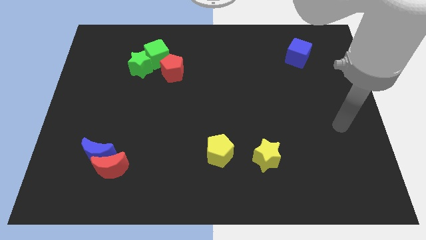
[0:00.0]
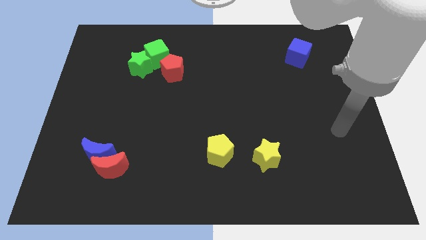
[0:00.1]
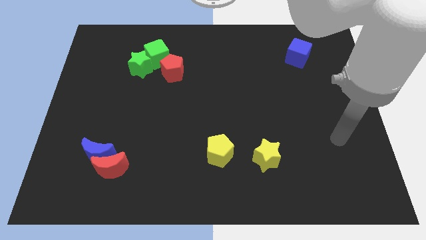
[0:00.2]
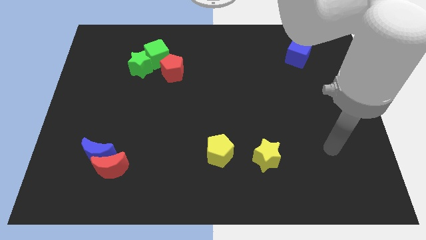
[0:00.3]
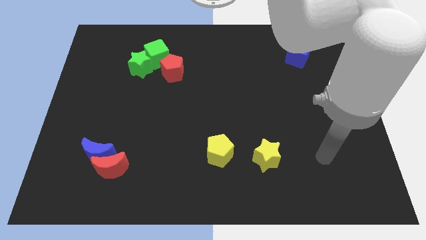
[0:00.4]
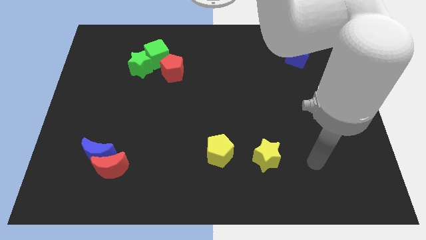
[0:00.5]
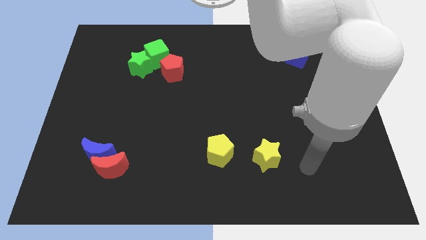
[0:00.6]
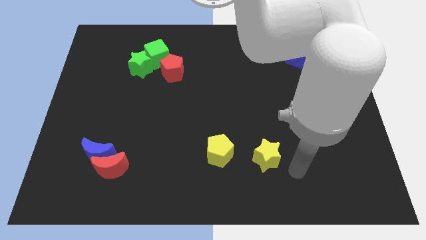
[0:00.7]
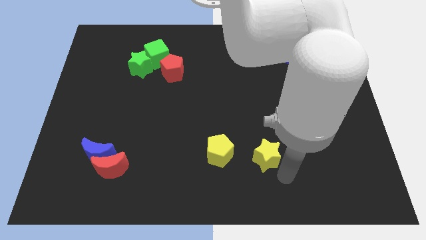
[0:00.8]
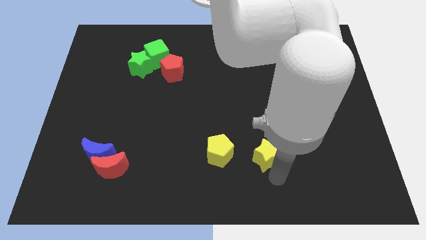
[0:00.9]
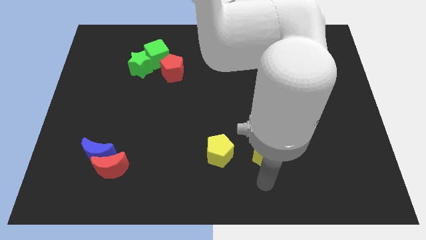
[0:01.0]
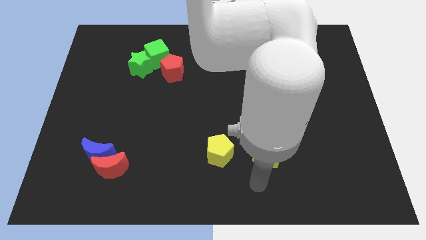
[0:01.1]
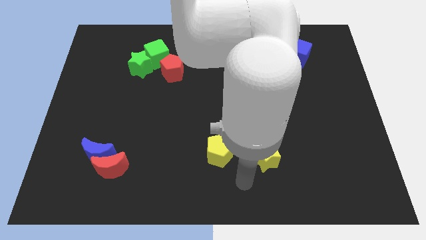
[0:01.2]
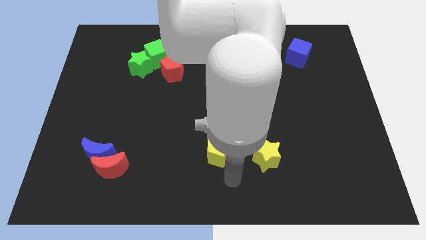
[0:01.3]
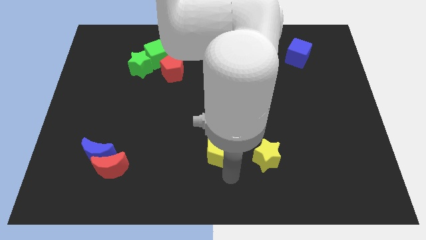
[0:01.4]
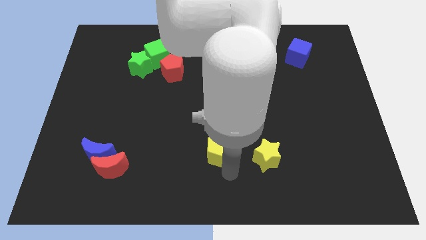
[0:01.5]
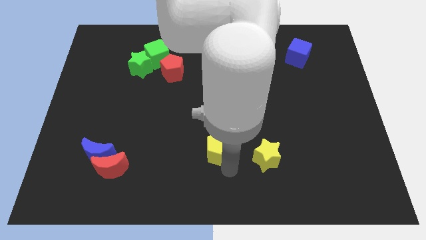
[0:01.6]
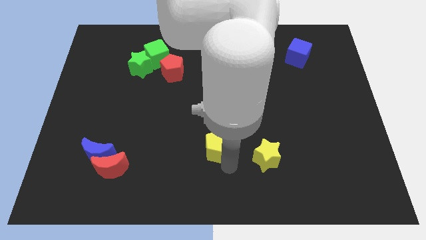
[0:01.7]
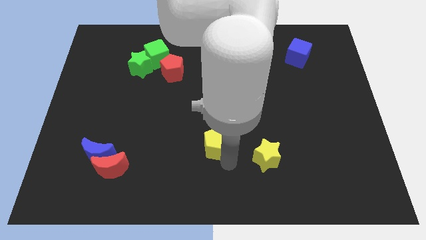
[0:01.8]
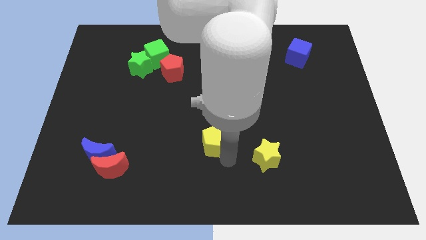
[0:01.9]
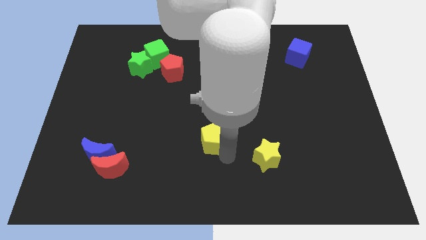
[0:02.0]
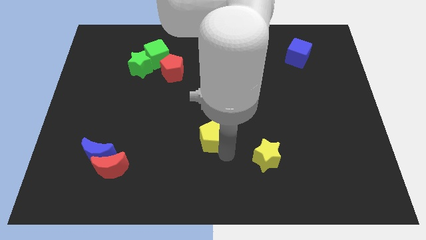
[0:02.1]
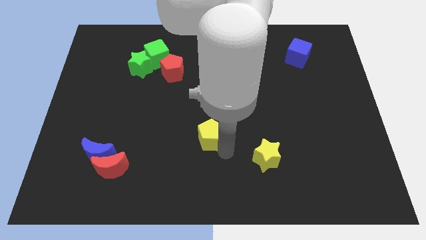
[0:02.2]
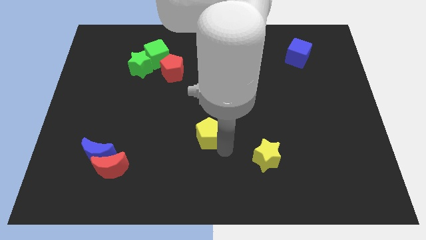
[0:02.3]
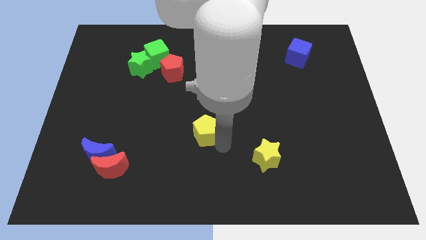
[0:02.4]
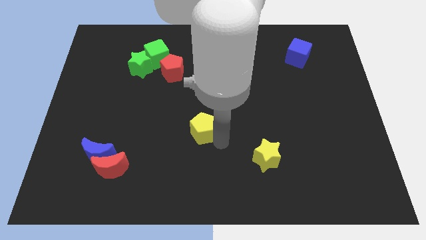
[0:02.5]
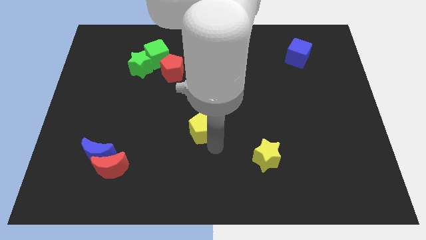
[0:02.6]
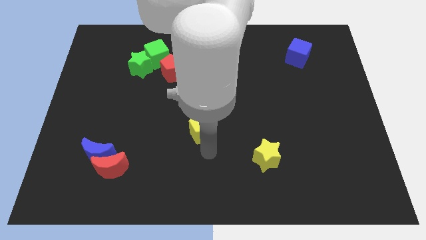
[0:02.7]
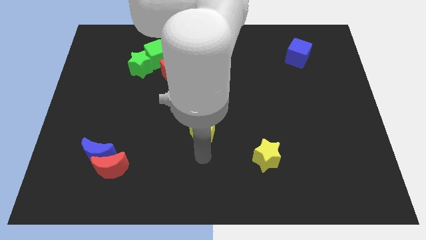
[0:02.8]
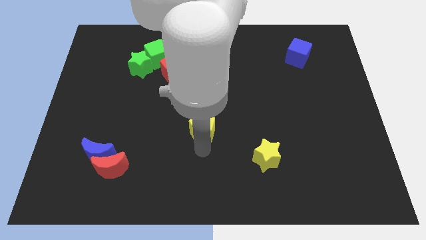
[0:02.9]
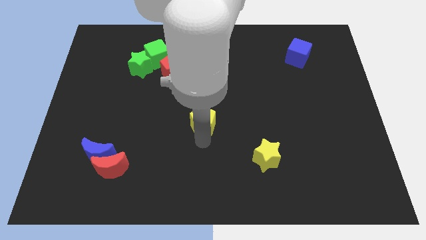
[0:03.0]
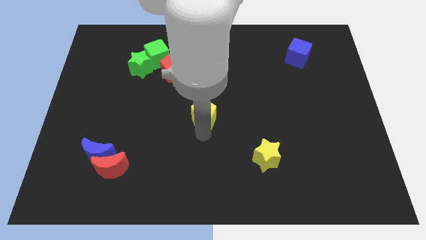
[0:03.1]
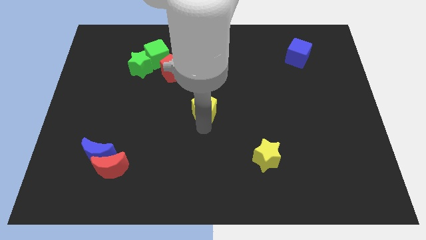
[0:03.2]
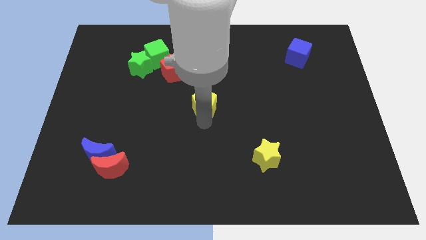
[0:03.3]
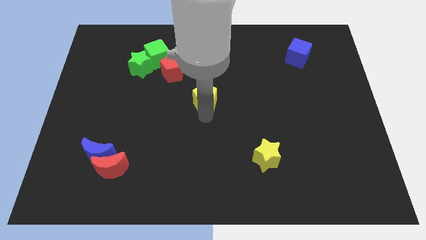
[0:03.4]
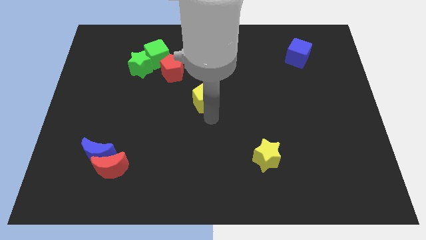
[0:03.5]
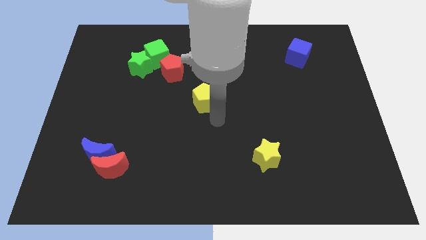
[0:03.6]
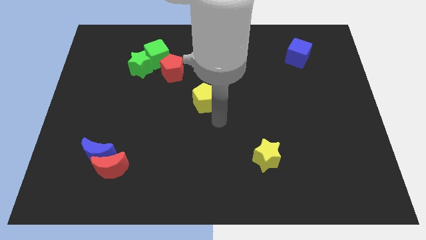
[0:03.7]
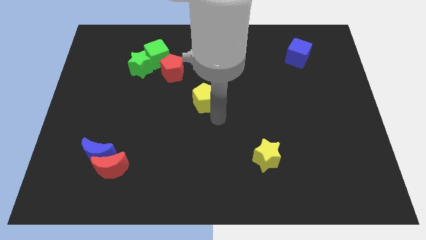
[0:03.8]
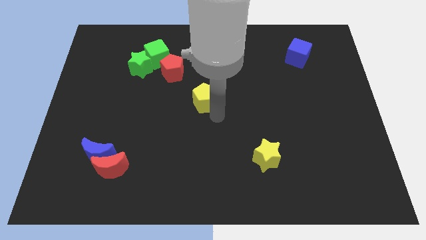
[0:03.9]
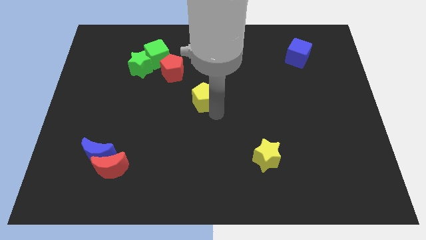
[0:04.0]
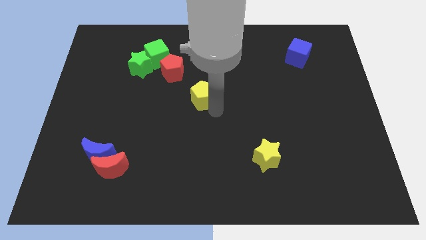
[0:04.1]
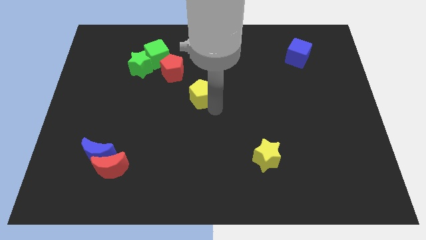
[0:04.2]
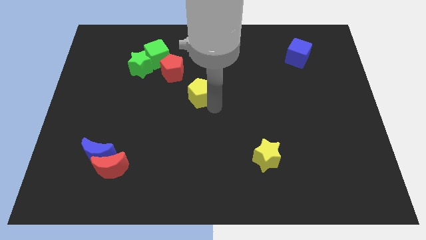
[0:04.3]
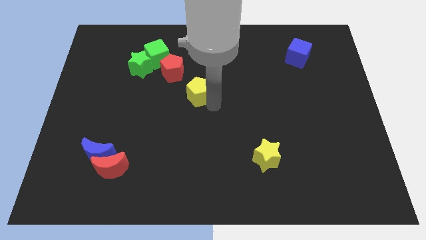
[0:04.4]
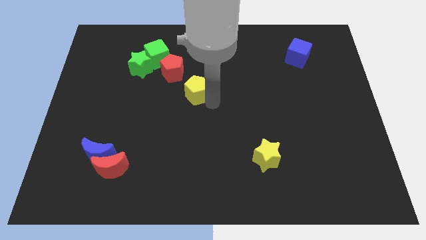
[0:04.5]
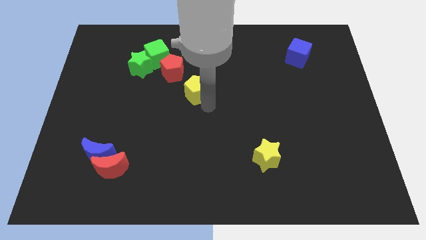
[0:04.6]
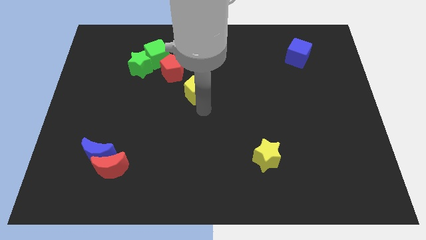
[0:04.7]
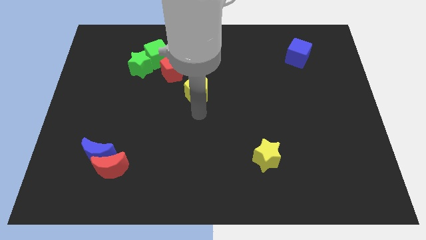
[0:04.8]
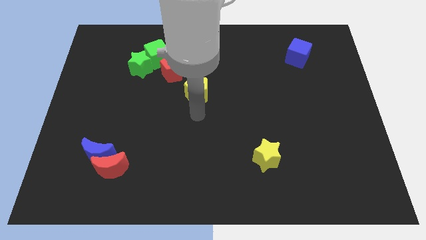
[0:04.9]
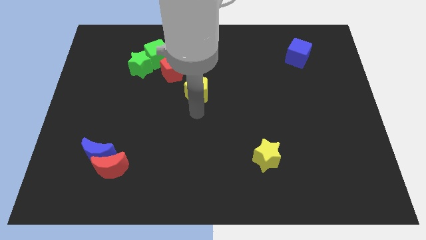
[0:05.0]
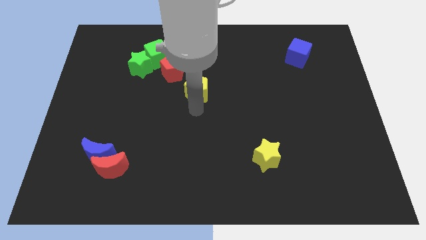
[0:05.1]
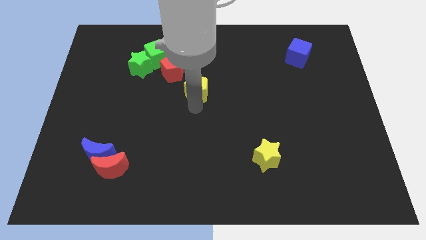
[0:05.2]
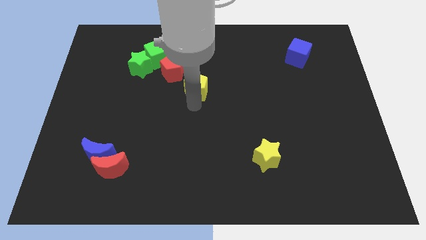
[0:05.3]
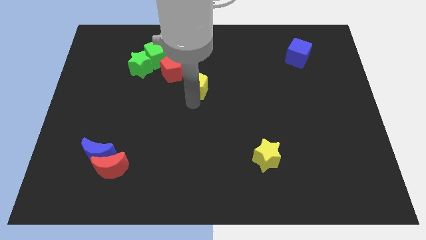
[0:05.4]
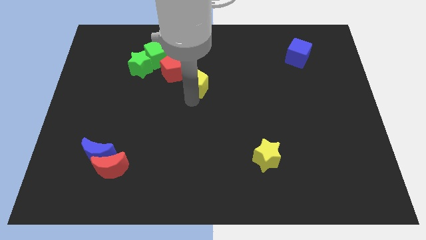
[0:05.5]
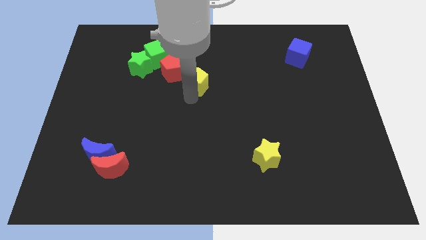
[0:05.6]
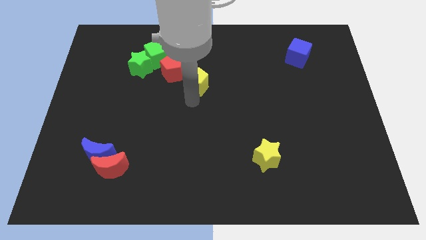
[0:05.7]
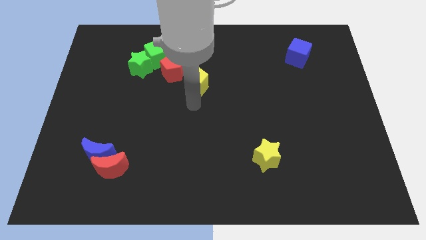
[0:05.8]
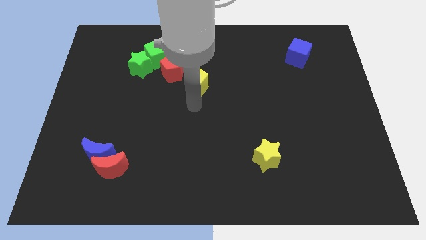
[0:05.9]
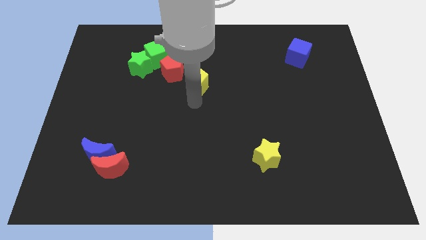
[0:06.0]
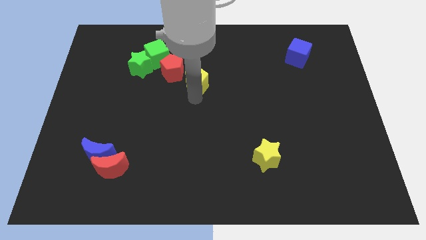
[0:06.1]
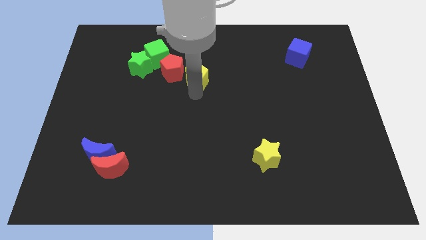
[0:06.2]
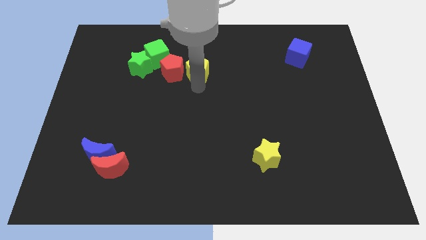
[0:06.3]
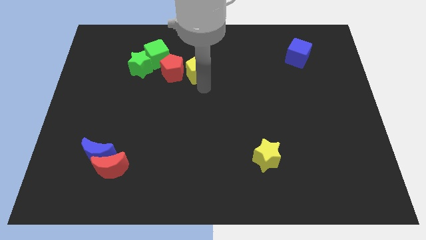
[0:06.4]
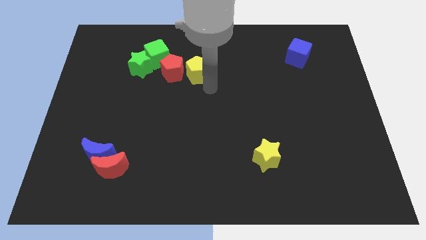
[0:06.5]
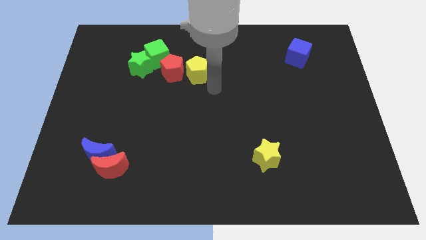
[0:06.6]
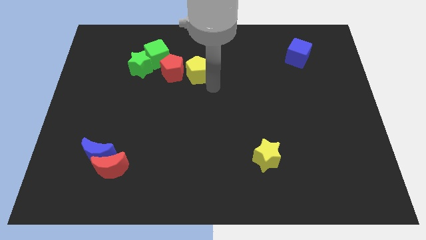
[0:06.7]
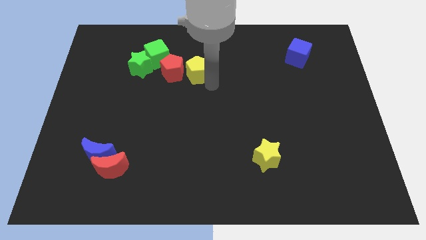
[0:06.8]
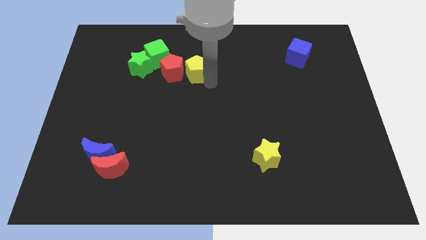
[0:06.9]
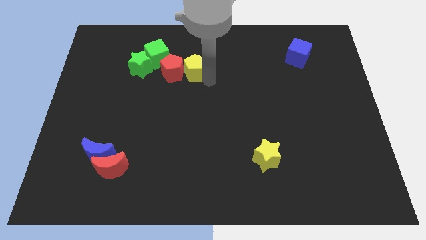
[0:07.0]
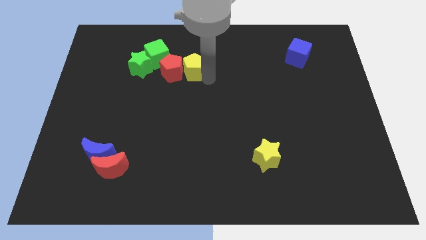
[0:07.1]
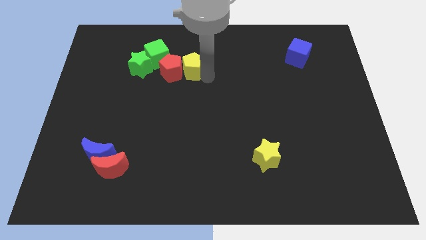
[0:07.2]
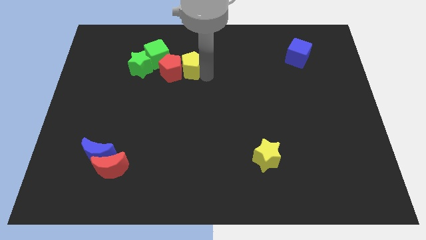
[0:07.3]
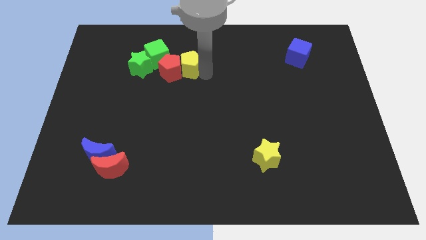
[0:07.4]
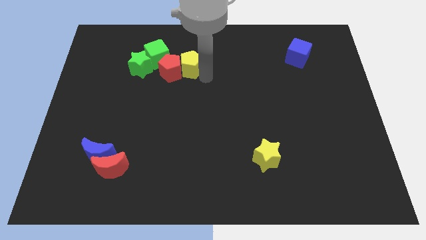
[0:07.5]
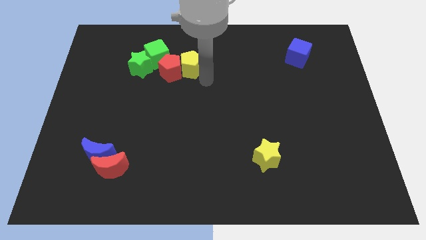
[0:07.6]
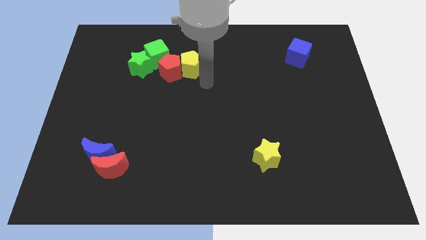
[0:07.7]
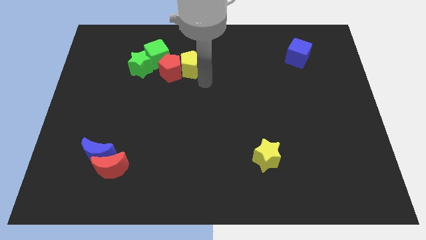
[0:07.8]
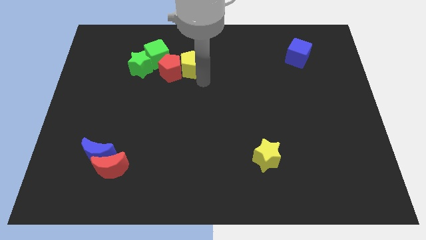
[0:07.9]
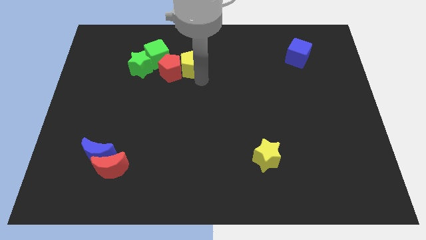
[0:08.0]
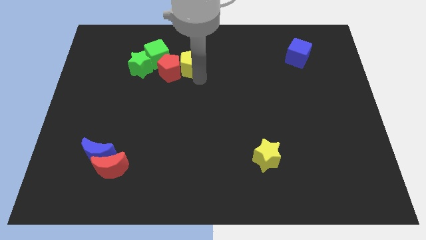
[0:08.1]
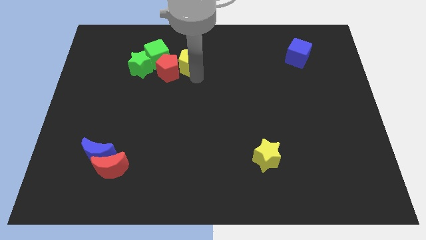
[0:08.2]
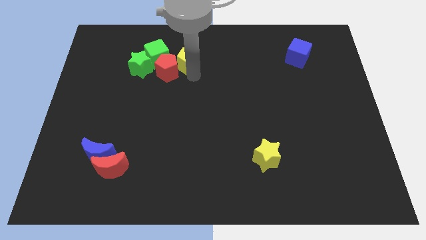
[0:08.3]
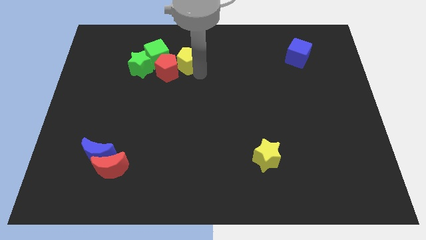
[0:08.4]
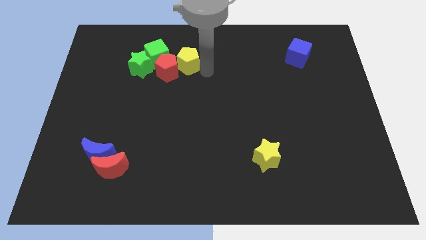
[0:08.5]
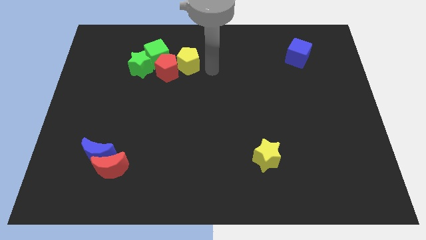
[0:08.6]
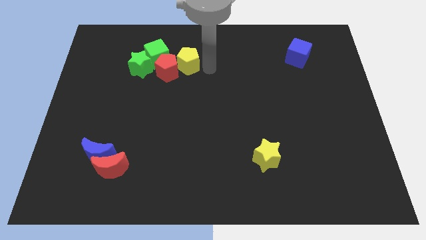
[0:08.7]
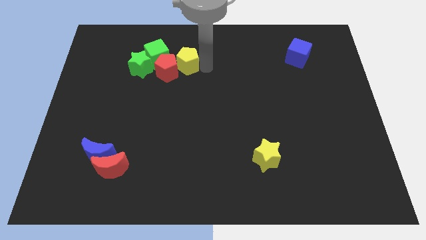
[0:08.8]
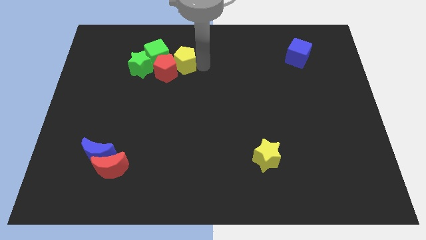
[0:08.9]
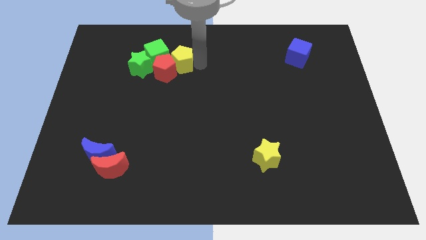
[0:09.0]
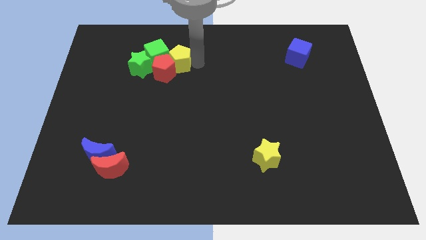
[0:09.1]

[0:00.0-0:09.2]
move the yellow pentagon next to the green cube
